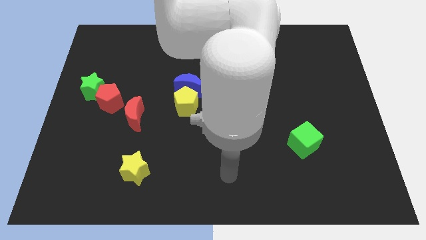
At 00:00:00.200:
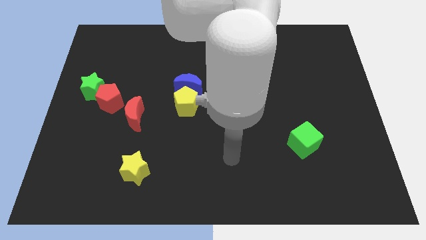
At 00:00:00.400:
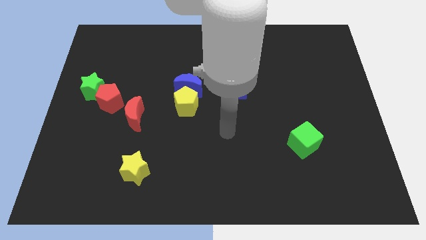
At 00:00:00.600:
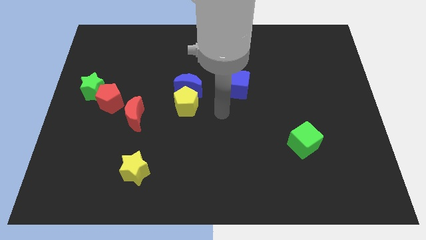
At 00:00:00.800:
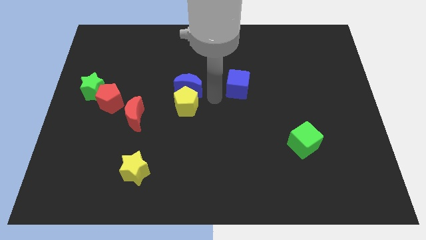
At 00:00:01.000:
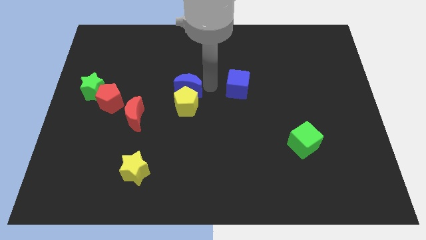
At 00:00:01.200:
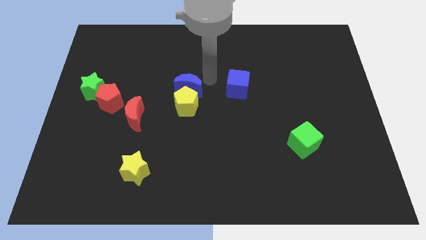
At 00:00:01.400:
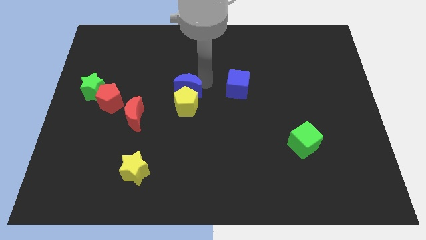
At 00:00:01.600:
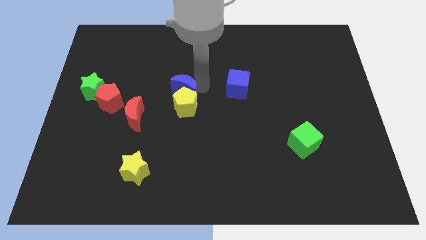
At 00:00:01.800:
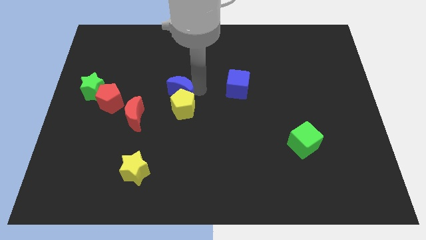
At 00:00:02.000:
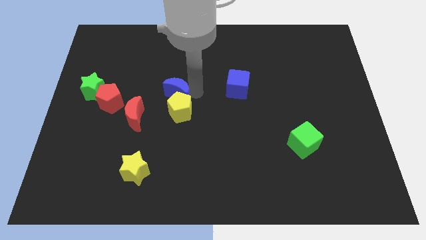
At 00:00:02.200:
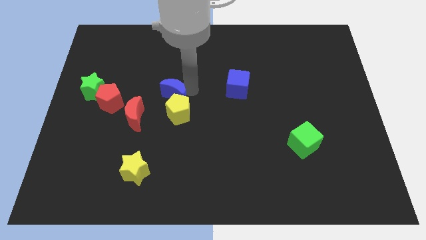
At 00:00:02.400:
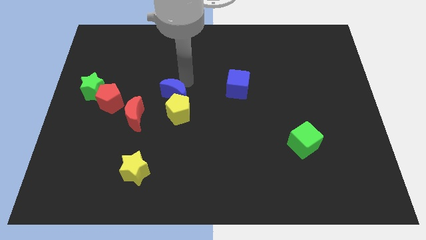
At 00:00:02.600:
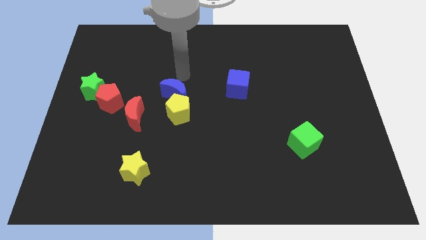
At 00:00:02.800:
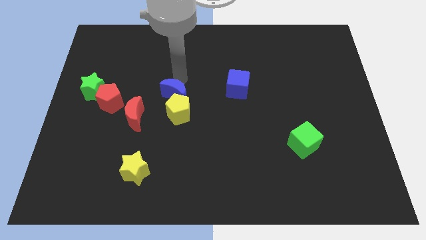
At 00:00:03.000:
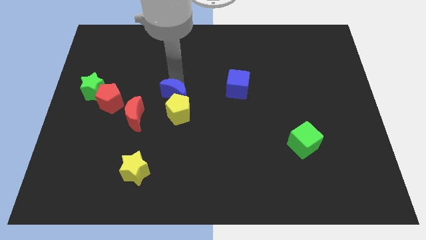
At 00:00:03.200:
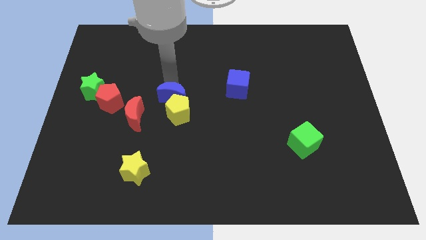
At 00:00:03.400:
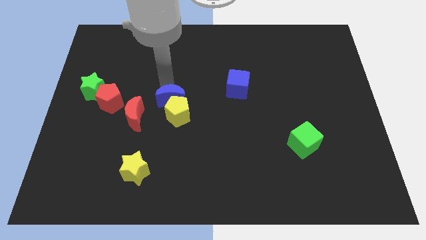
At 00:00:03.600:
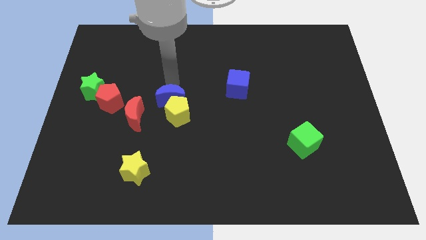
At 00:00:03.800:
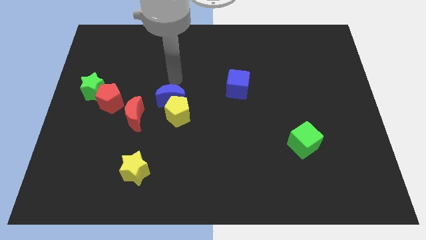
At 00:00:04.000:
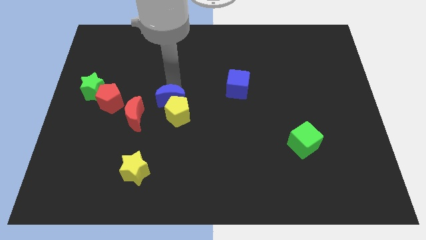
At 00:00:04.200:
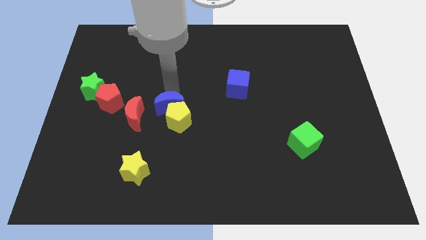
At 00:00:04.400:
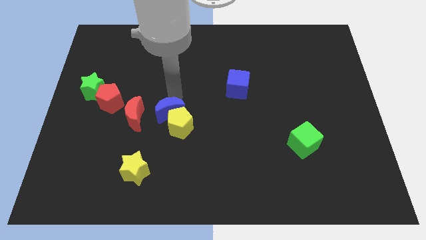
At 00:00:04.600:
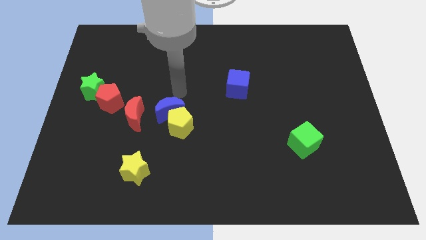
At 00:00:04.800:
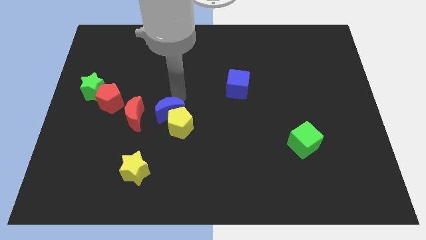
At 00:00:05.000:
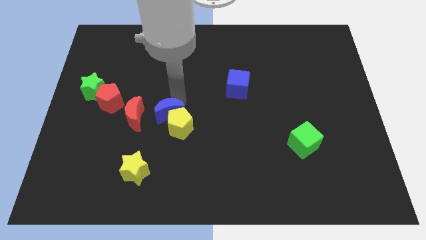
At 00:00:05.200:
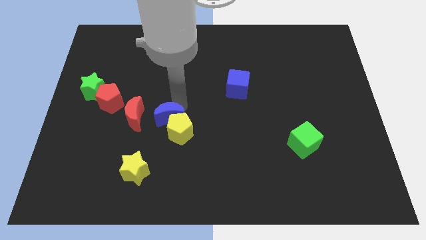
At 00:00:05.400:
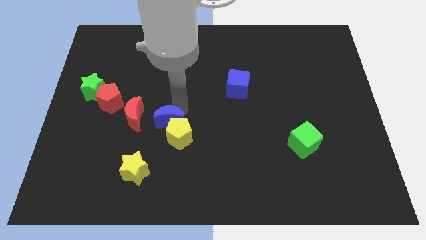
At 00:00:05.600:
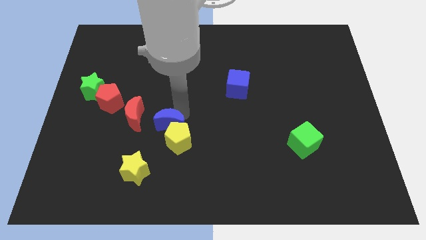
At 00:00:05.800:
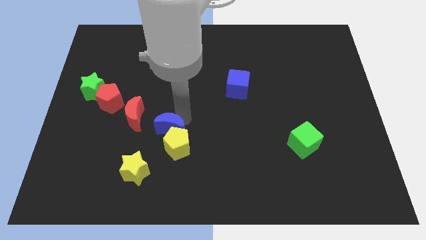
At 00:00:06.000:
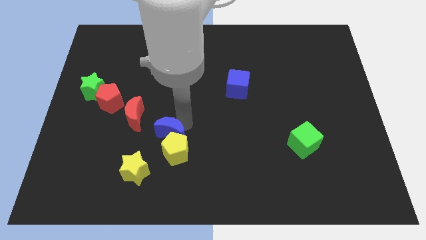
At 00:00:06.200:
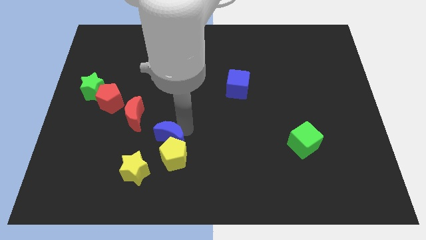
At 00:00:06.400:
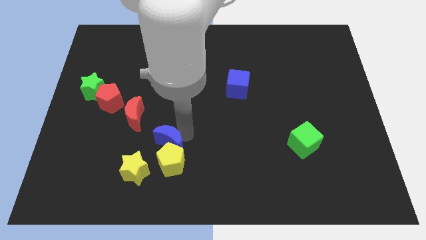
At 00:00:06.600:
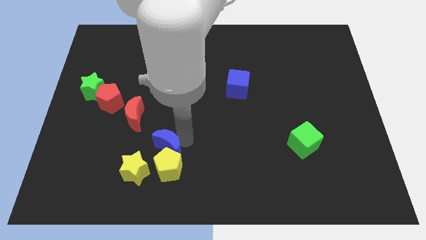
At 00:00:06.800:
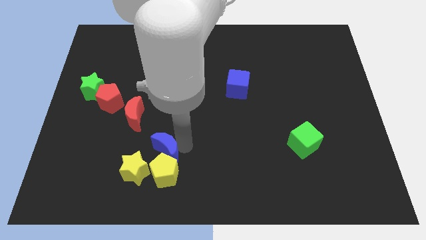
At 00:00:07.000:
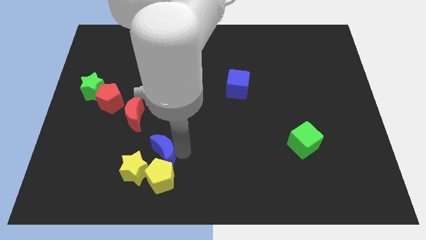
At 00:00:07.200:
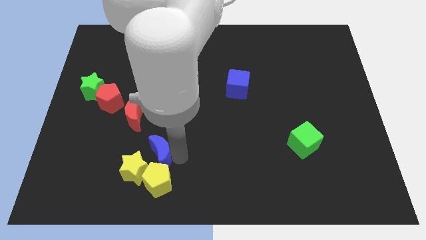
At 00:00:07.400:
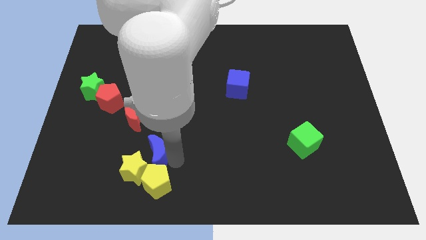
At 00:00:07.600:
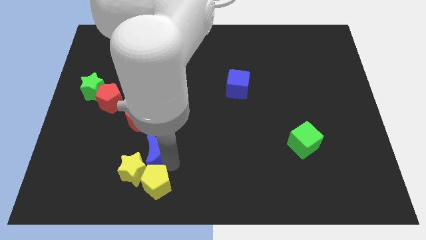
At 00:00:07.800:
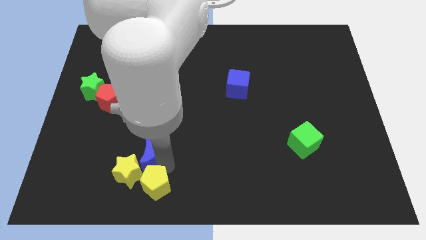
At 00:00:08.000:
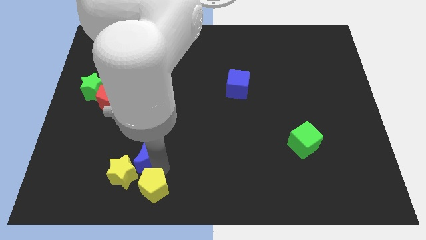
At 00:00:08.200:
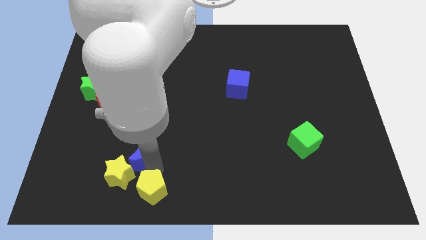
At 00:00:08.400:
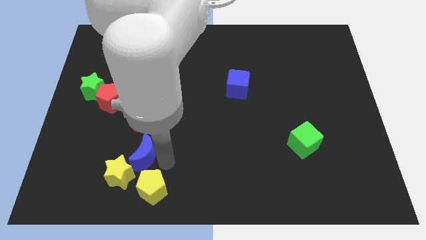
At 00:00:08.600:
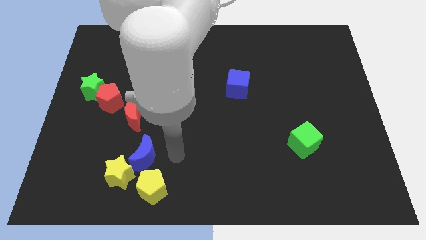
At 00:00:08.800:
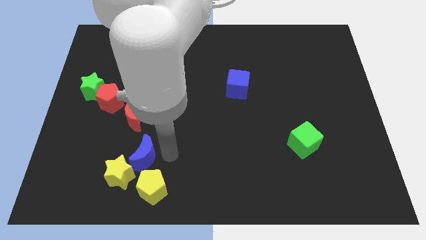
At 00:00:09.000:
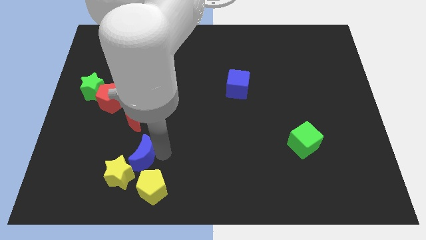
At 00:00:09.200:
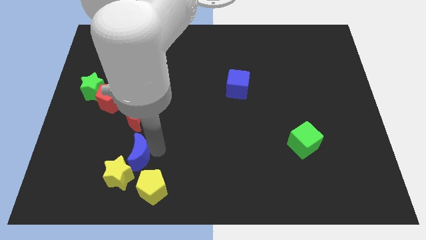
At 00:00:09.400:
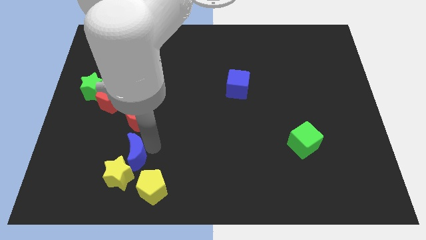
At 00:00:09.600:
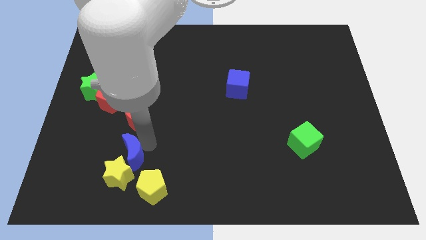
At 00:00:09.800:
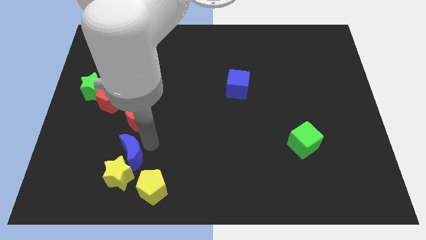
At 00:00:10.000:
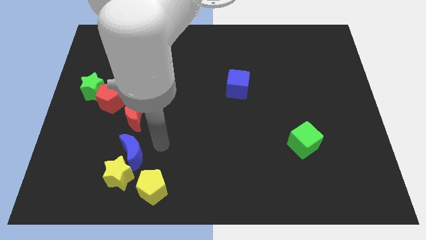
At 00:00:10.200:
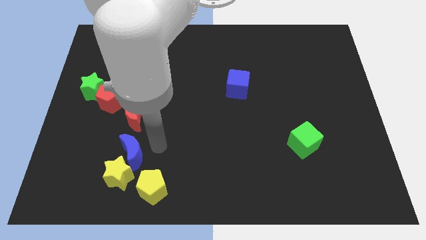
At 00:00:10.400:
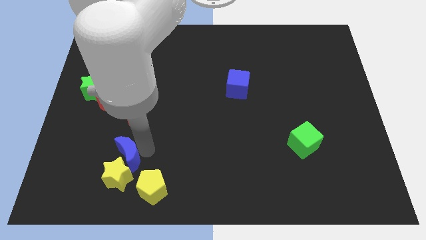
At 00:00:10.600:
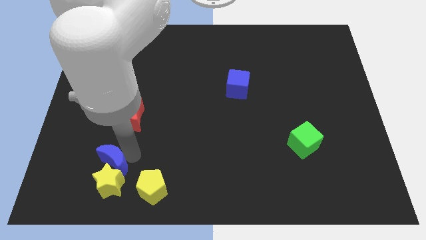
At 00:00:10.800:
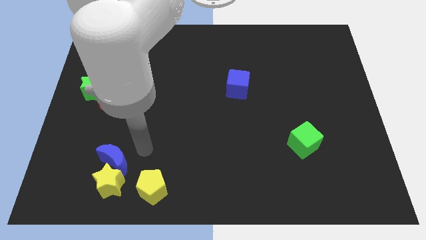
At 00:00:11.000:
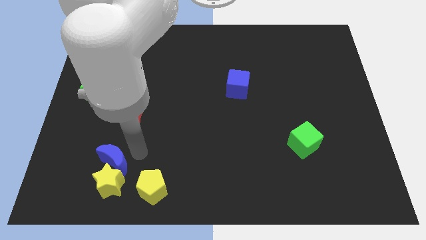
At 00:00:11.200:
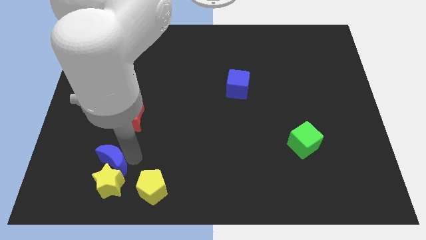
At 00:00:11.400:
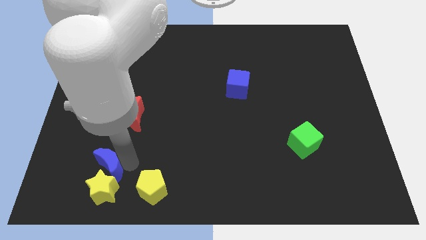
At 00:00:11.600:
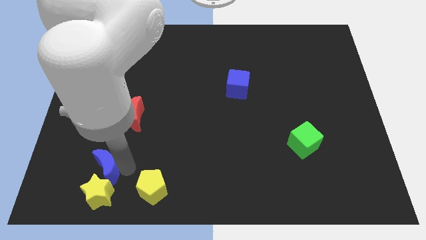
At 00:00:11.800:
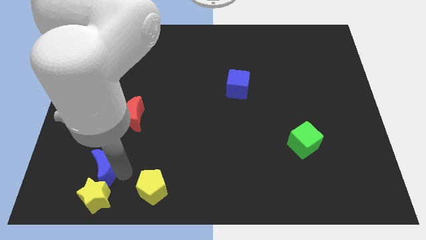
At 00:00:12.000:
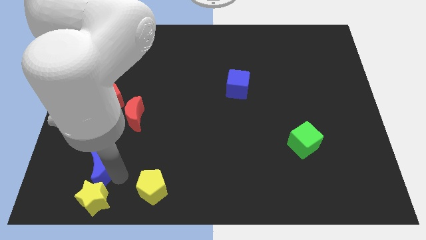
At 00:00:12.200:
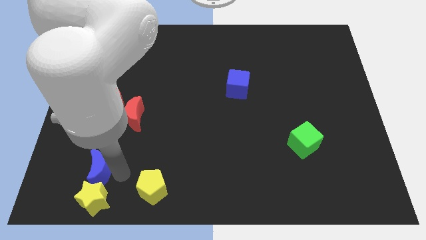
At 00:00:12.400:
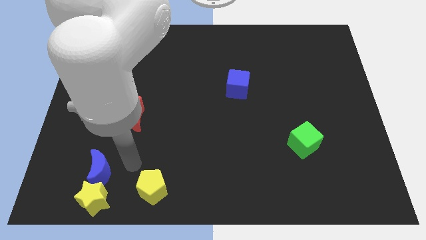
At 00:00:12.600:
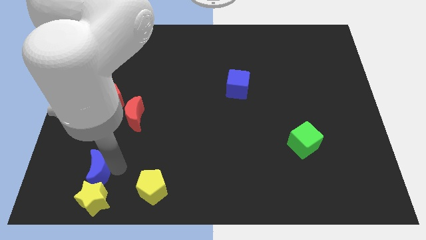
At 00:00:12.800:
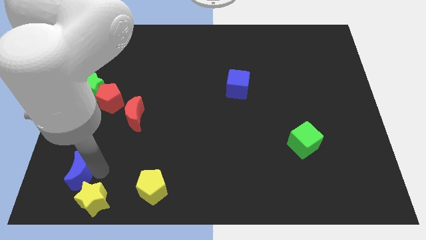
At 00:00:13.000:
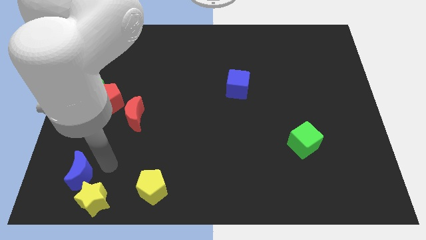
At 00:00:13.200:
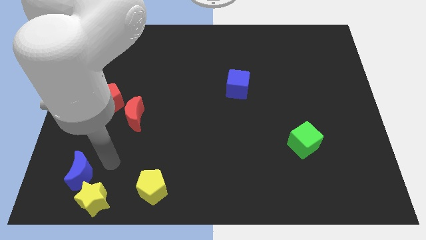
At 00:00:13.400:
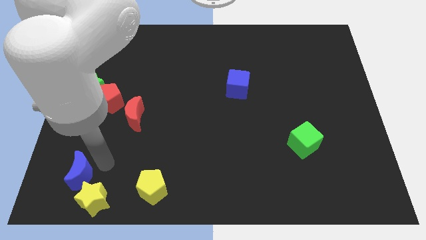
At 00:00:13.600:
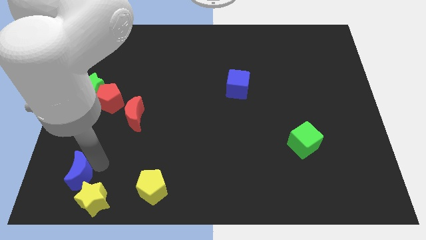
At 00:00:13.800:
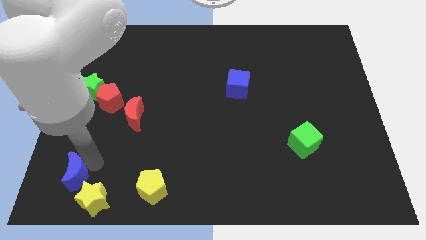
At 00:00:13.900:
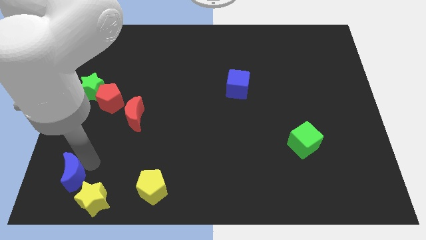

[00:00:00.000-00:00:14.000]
move the blue moon to the bottom left corner
